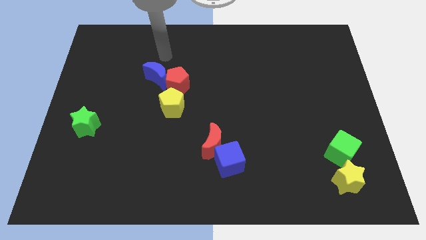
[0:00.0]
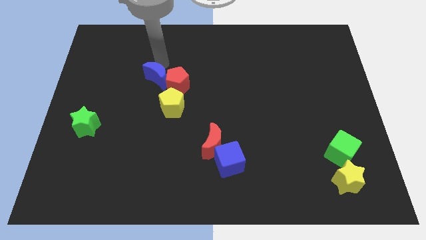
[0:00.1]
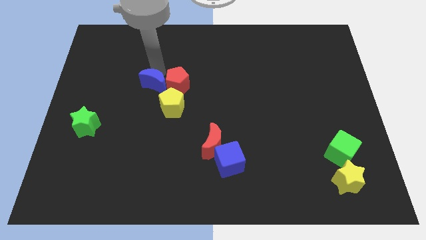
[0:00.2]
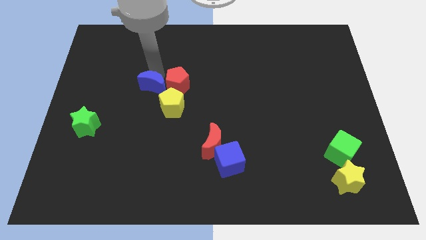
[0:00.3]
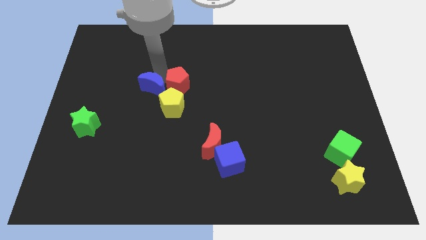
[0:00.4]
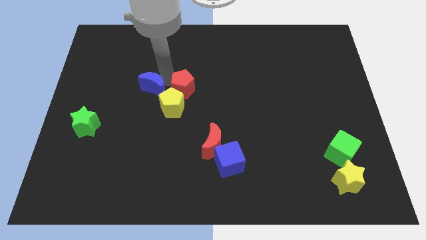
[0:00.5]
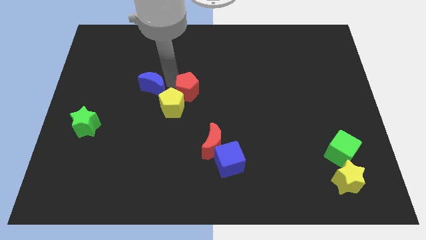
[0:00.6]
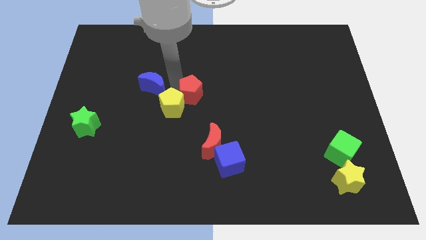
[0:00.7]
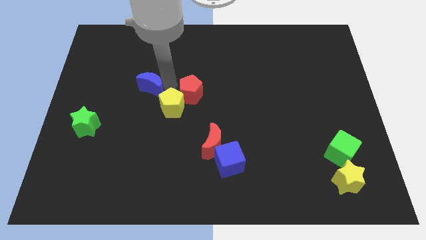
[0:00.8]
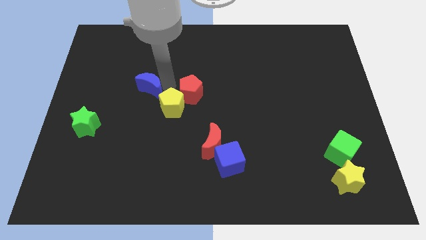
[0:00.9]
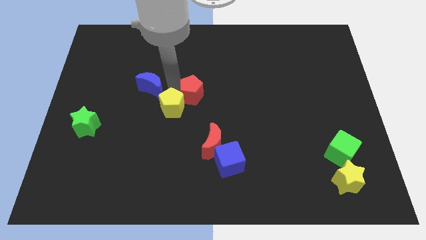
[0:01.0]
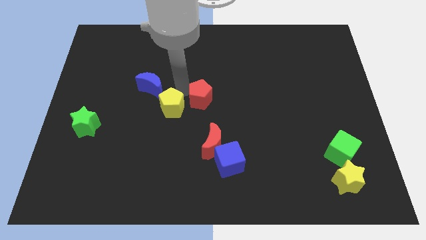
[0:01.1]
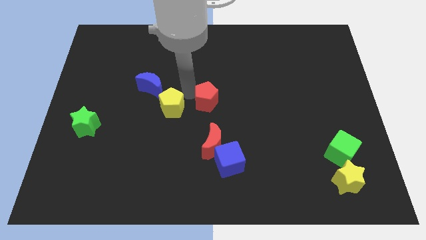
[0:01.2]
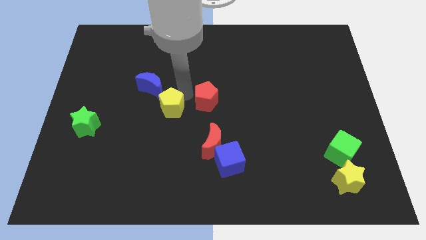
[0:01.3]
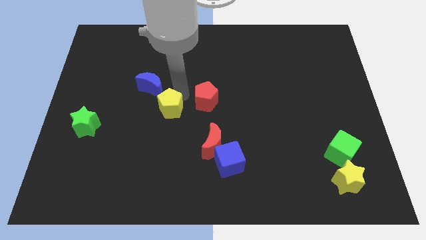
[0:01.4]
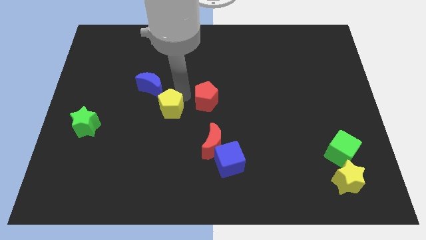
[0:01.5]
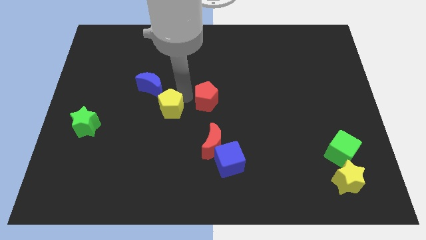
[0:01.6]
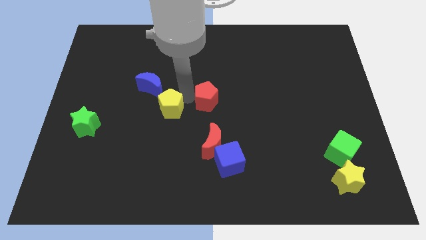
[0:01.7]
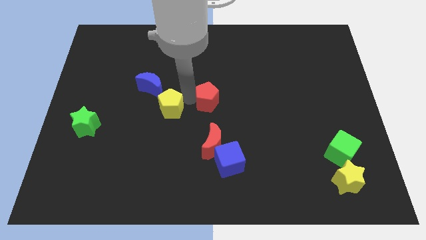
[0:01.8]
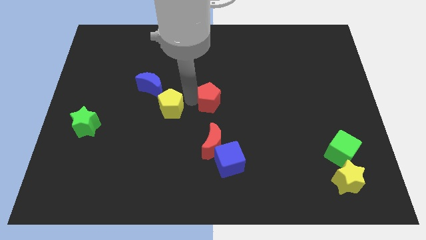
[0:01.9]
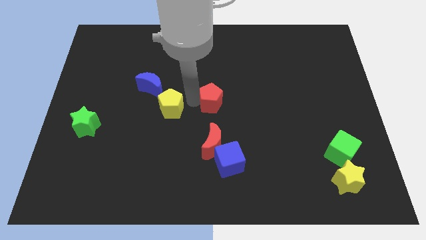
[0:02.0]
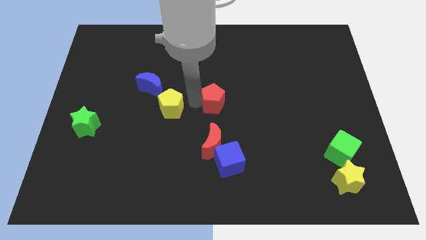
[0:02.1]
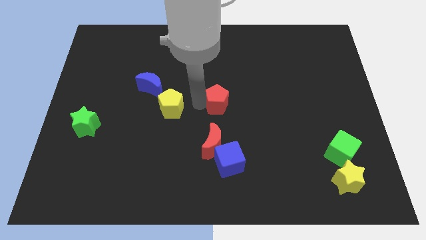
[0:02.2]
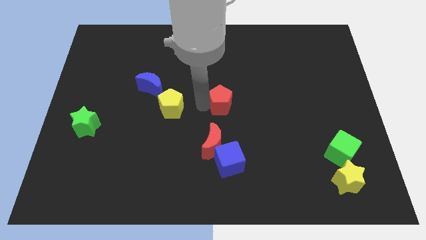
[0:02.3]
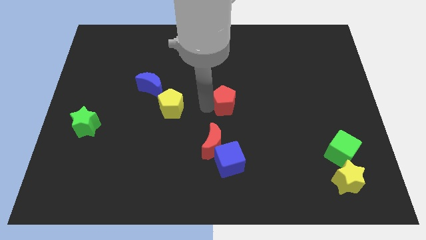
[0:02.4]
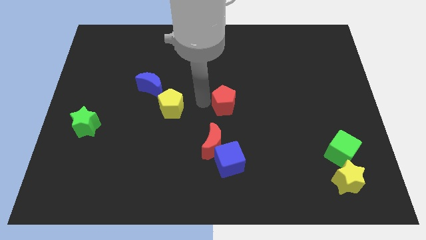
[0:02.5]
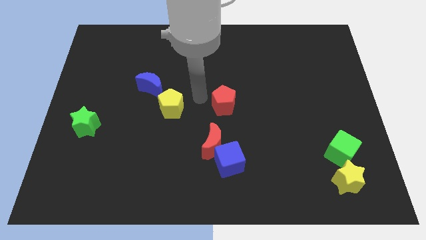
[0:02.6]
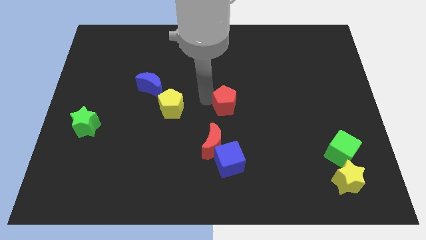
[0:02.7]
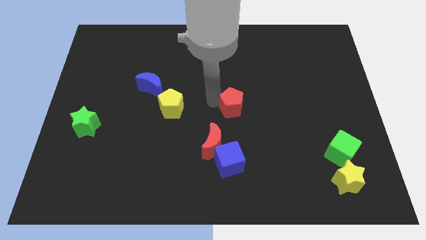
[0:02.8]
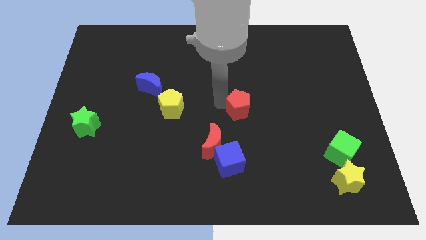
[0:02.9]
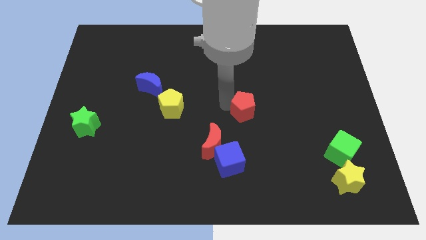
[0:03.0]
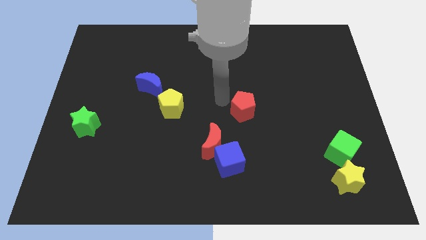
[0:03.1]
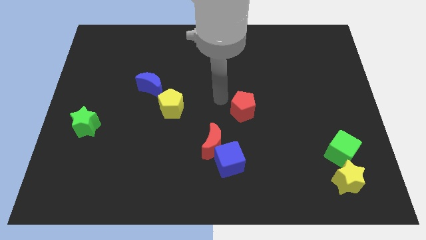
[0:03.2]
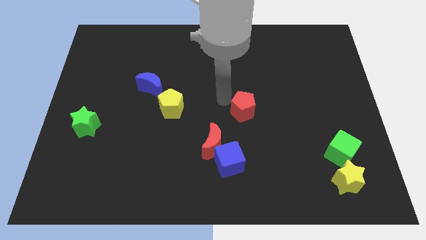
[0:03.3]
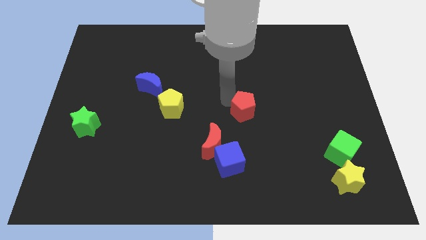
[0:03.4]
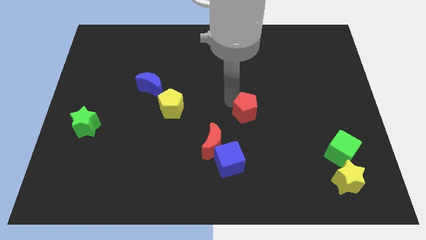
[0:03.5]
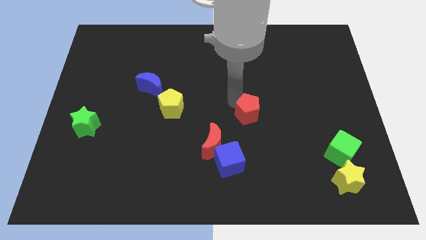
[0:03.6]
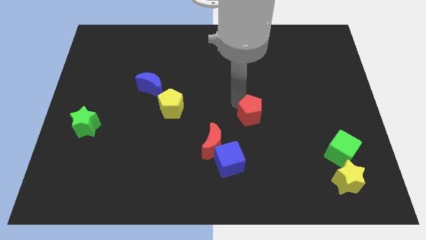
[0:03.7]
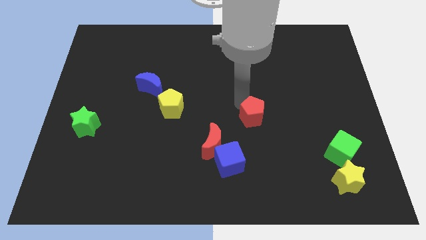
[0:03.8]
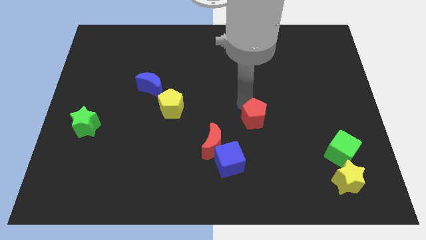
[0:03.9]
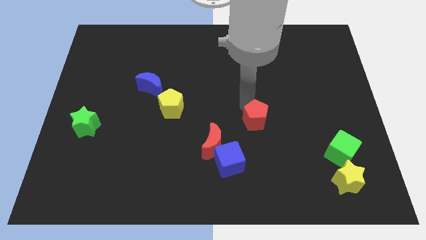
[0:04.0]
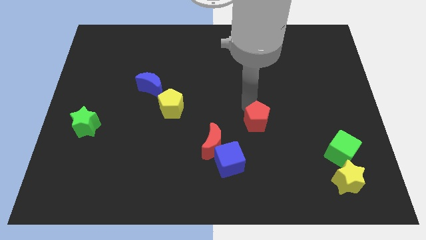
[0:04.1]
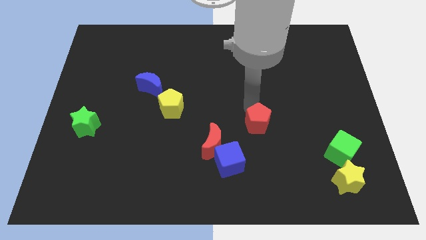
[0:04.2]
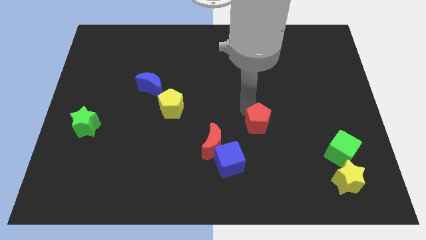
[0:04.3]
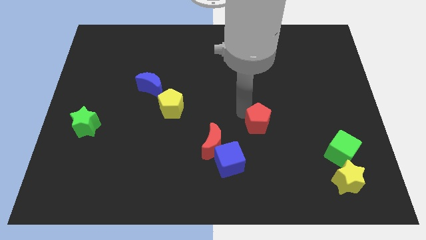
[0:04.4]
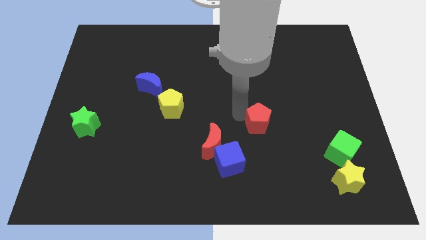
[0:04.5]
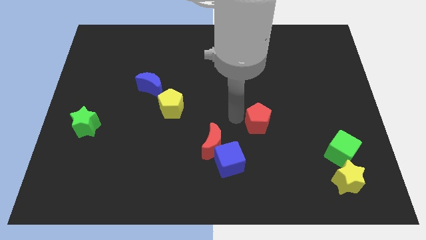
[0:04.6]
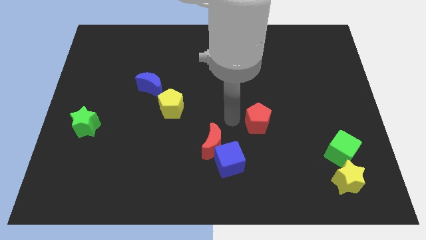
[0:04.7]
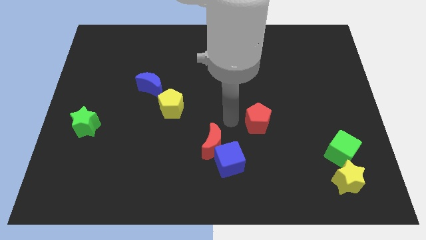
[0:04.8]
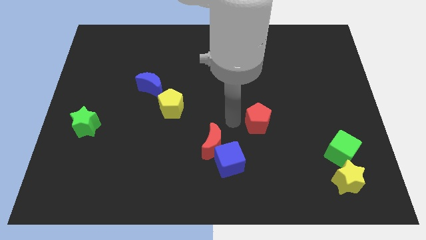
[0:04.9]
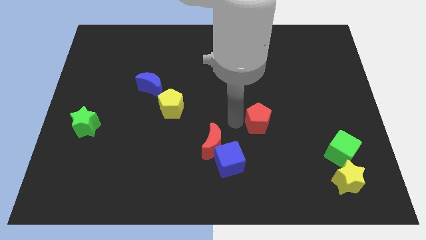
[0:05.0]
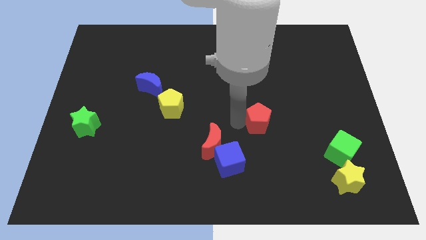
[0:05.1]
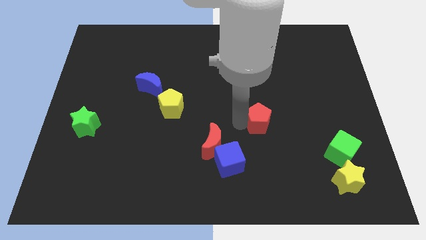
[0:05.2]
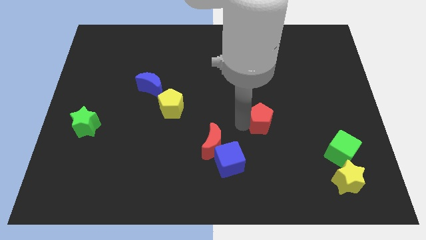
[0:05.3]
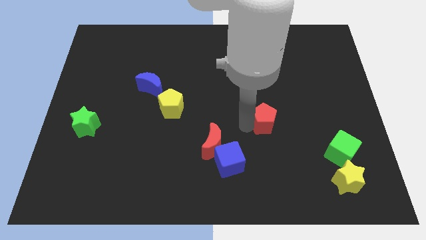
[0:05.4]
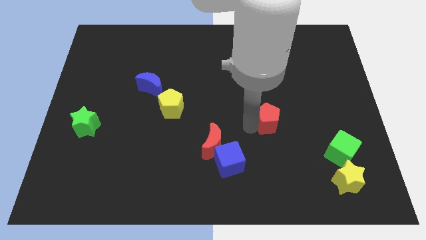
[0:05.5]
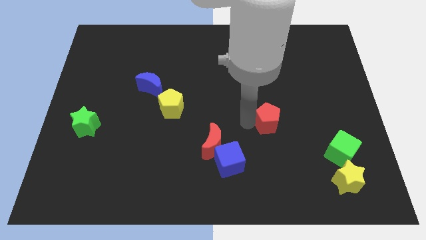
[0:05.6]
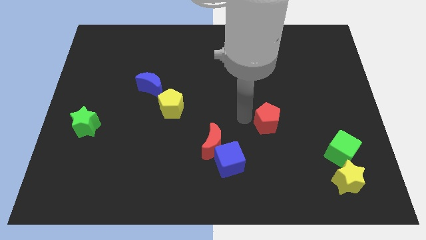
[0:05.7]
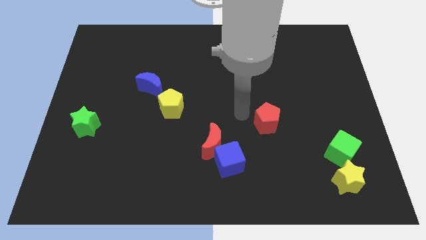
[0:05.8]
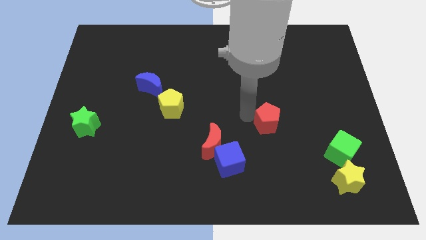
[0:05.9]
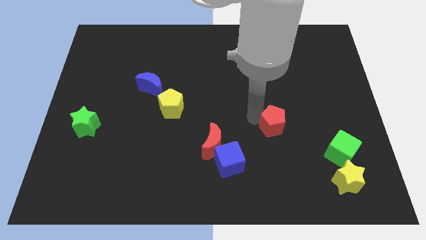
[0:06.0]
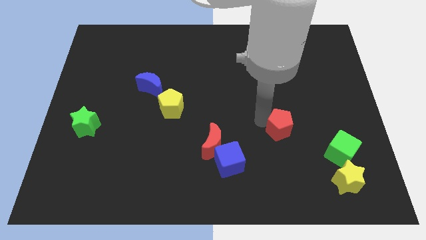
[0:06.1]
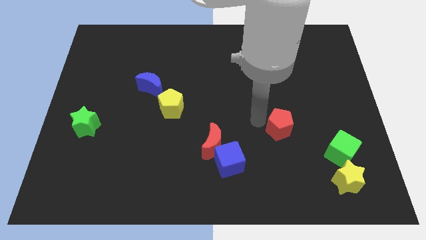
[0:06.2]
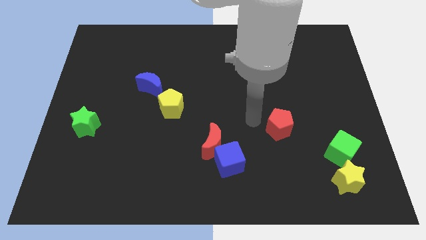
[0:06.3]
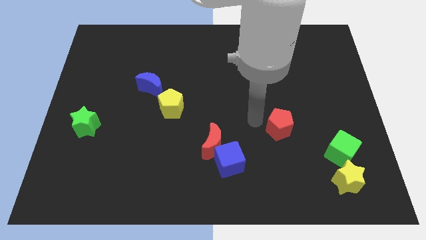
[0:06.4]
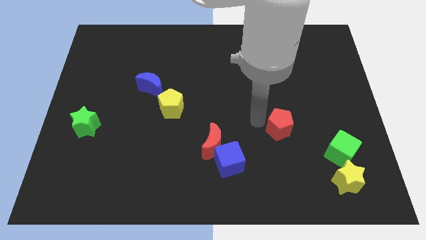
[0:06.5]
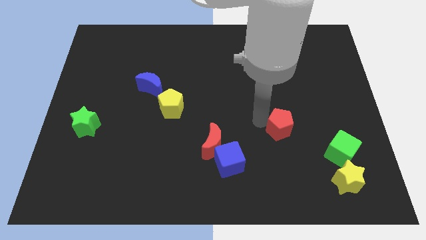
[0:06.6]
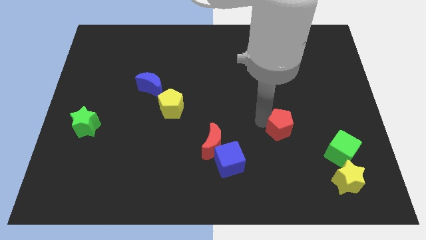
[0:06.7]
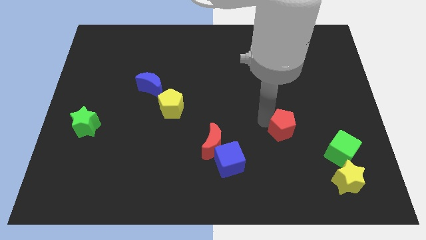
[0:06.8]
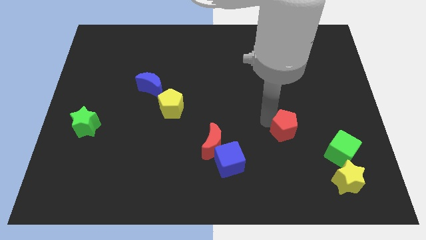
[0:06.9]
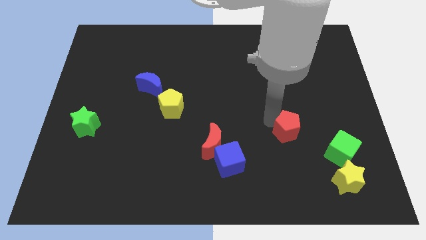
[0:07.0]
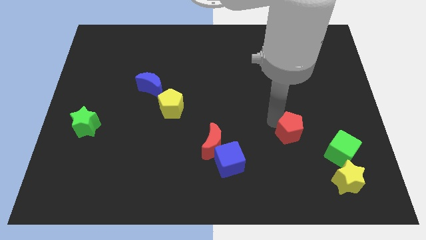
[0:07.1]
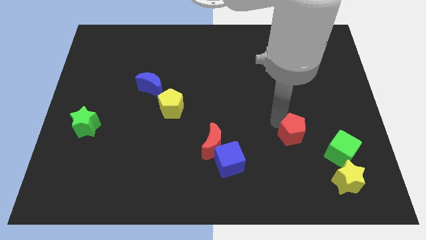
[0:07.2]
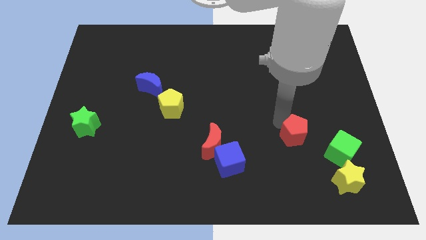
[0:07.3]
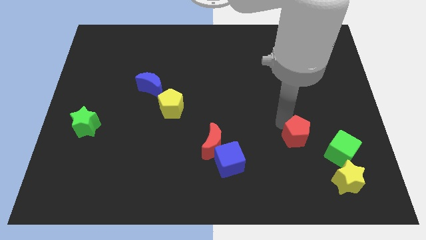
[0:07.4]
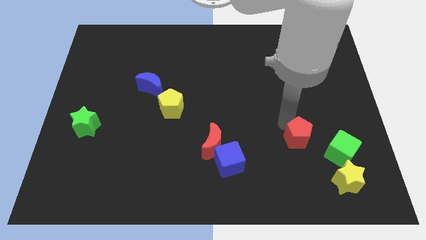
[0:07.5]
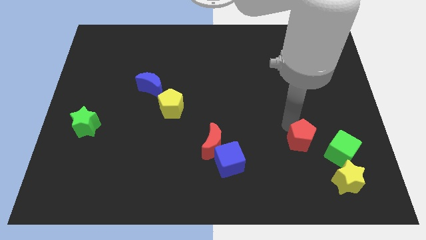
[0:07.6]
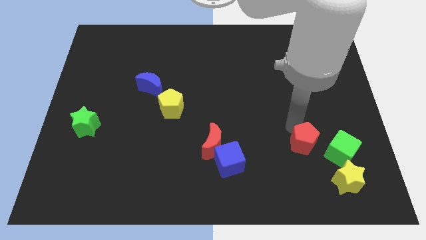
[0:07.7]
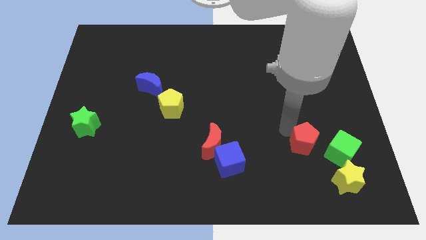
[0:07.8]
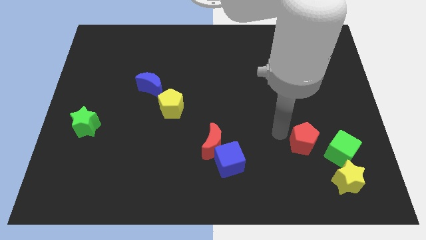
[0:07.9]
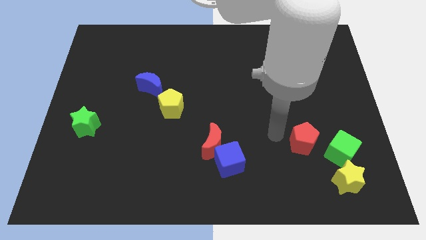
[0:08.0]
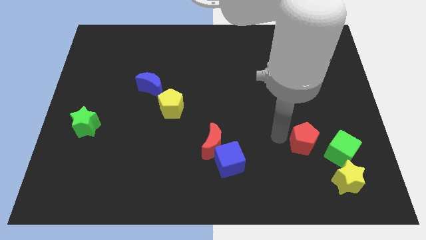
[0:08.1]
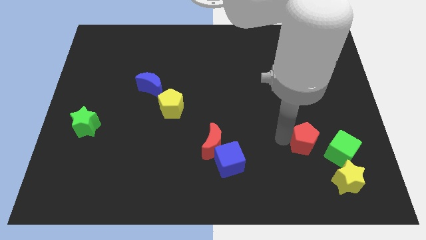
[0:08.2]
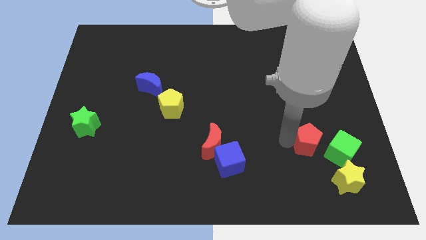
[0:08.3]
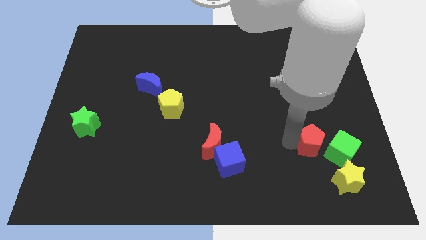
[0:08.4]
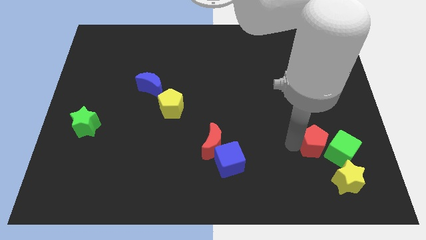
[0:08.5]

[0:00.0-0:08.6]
move the red pentagon to the green cube
